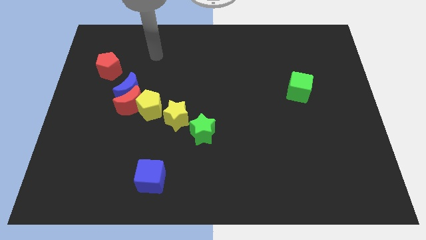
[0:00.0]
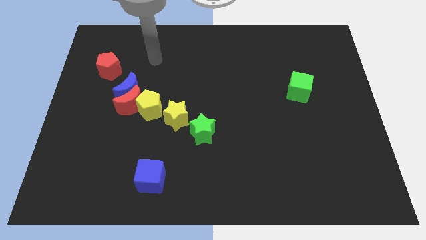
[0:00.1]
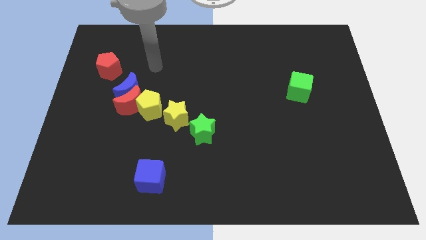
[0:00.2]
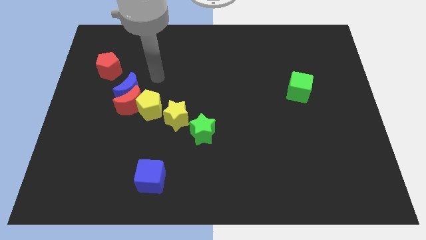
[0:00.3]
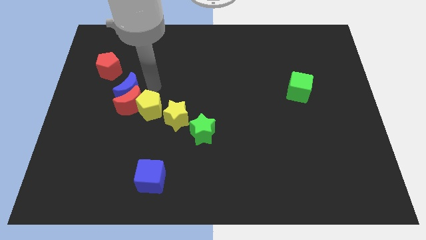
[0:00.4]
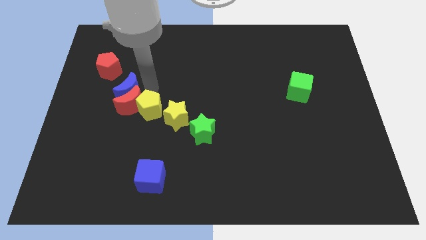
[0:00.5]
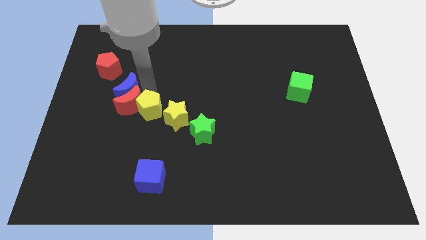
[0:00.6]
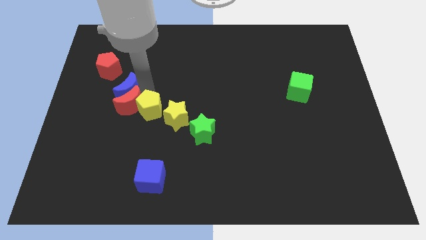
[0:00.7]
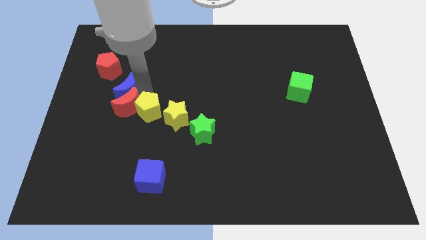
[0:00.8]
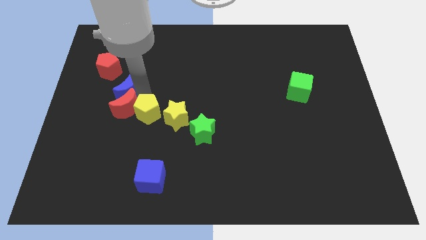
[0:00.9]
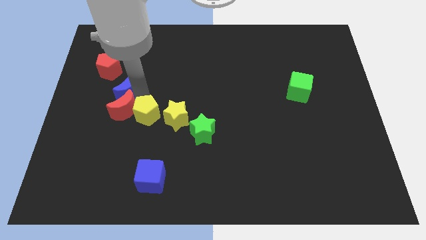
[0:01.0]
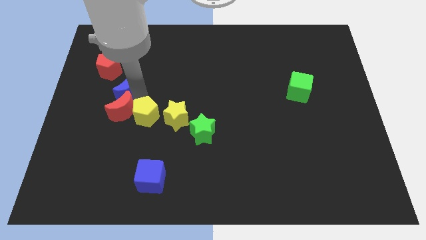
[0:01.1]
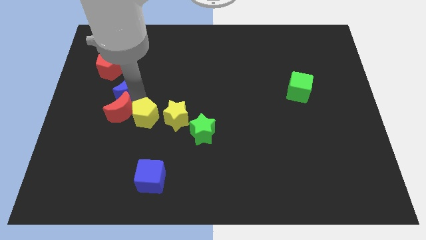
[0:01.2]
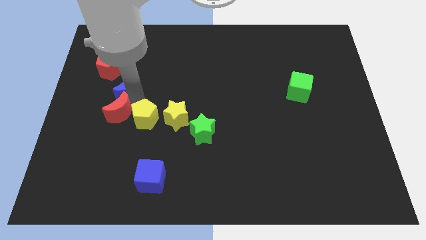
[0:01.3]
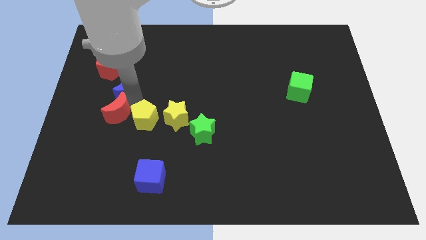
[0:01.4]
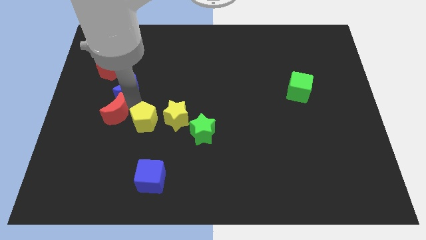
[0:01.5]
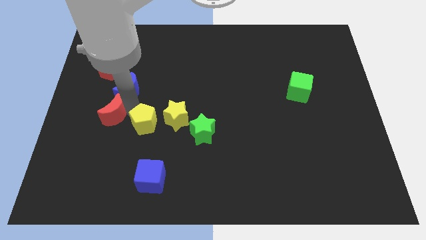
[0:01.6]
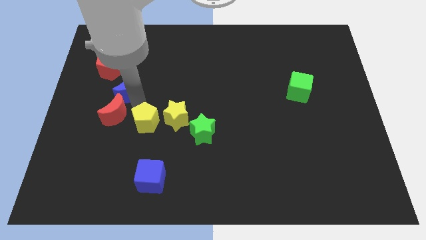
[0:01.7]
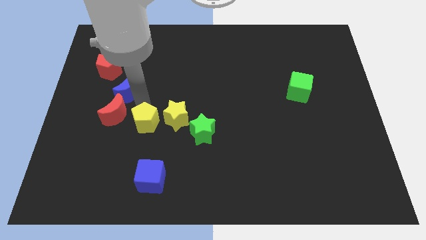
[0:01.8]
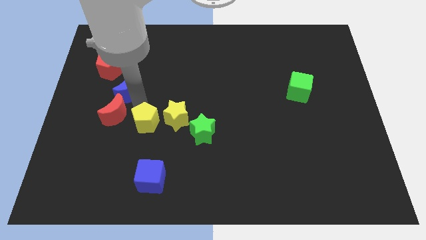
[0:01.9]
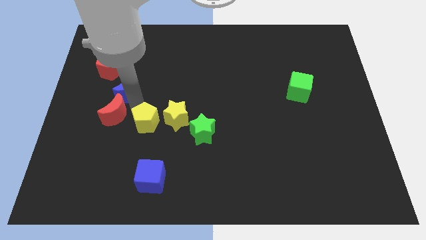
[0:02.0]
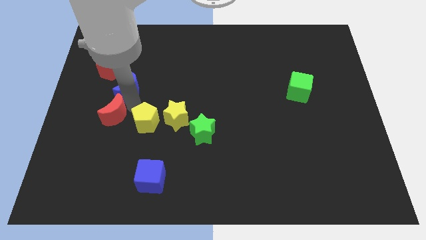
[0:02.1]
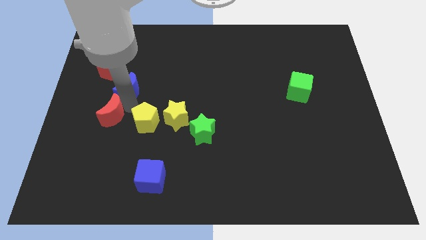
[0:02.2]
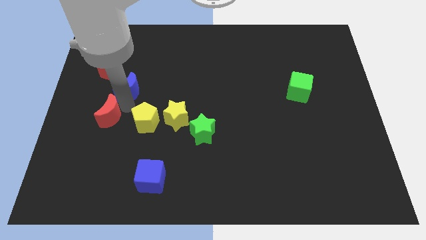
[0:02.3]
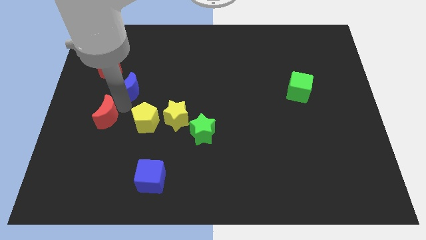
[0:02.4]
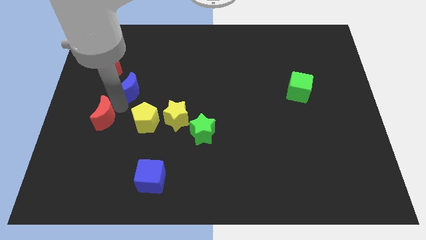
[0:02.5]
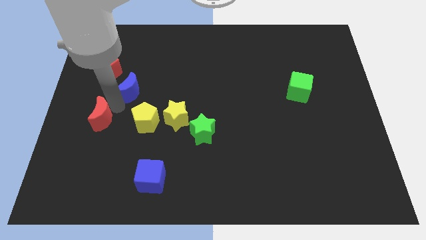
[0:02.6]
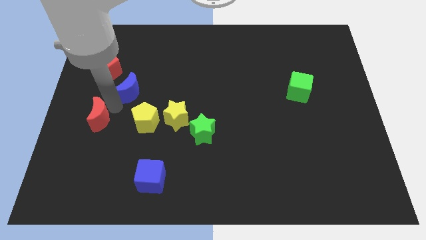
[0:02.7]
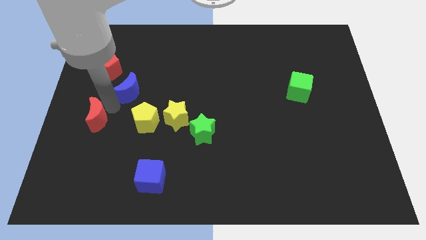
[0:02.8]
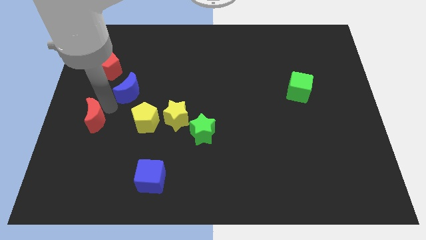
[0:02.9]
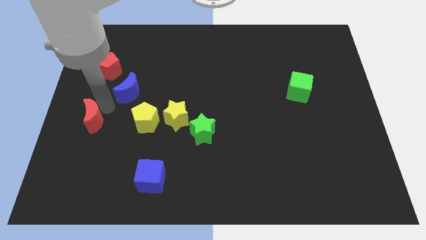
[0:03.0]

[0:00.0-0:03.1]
pull the red moon apart from the blue moon and yellow pentagon

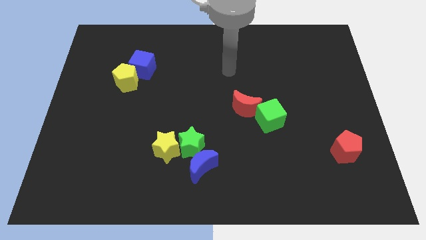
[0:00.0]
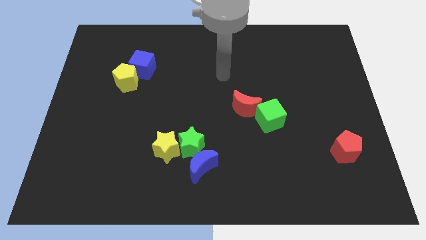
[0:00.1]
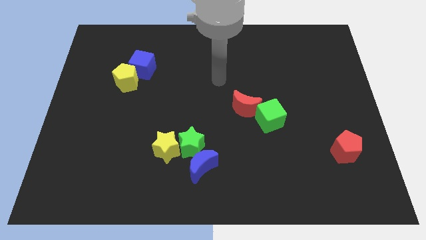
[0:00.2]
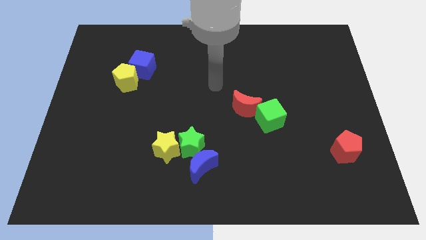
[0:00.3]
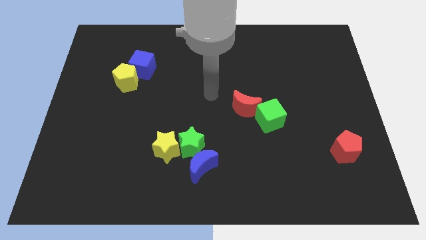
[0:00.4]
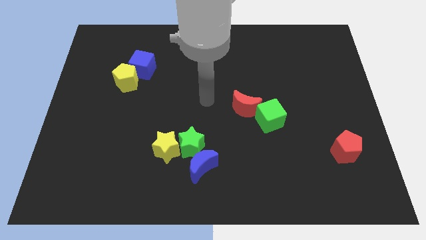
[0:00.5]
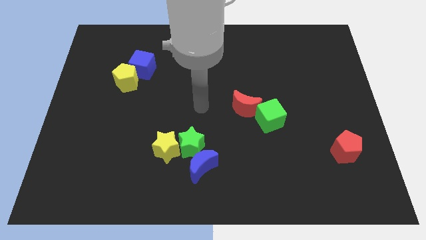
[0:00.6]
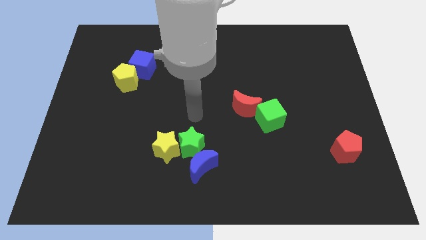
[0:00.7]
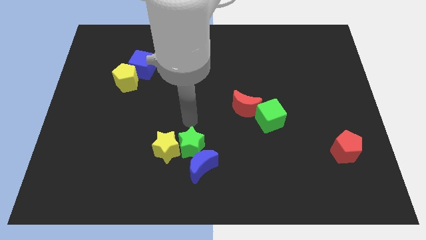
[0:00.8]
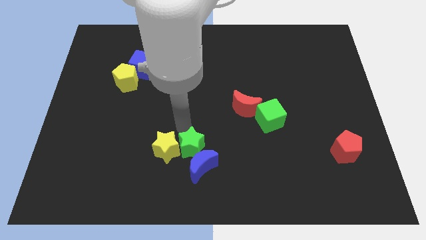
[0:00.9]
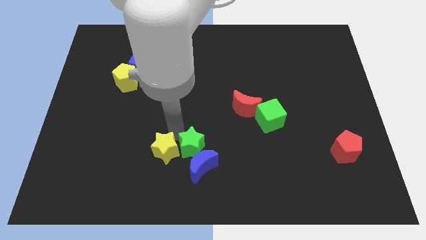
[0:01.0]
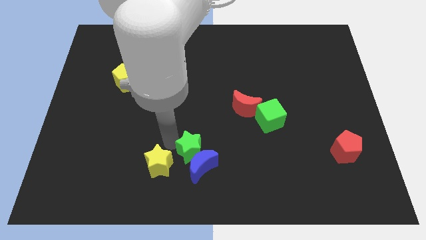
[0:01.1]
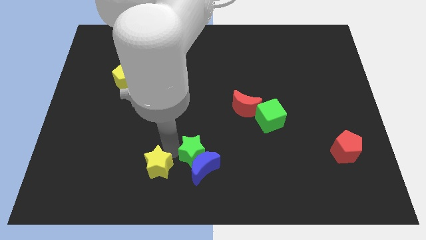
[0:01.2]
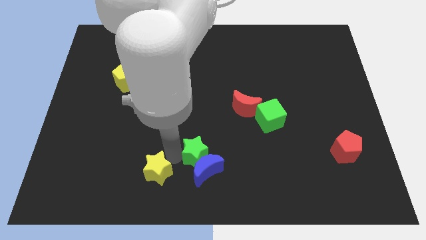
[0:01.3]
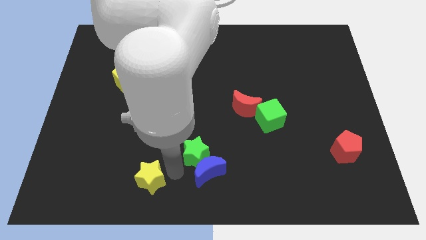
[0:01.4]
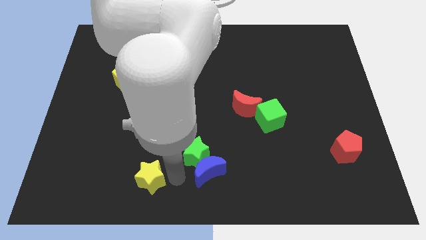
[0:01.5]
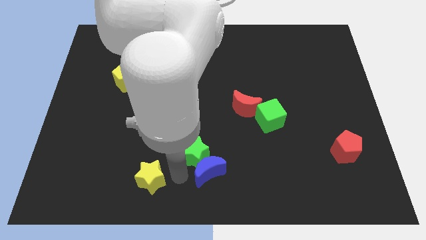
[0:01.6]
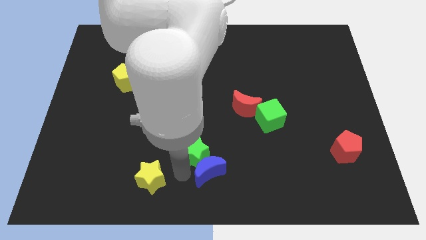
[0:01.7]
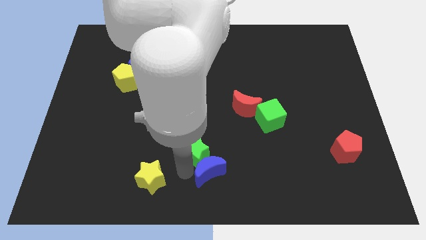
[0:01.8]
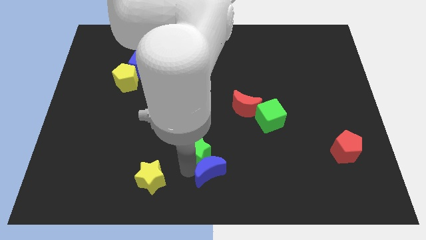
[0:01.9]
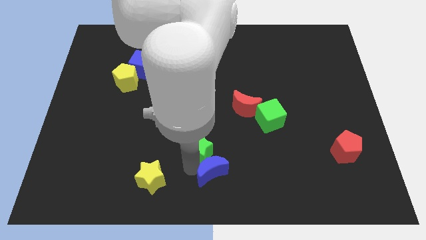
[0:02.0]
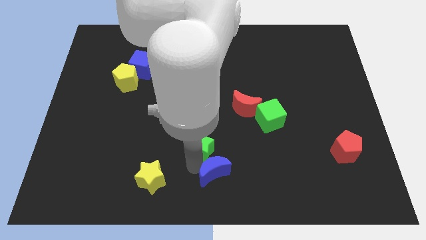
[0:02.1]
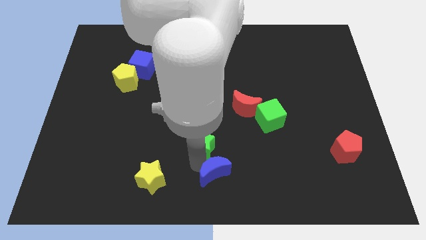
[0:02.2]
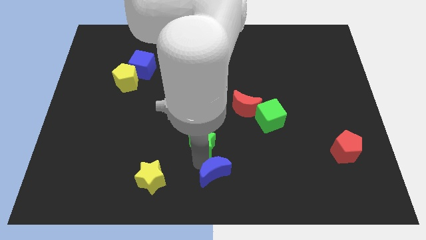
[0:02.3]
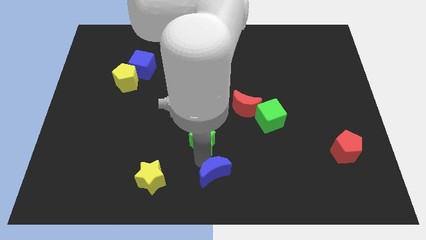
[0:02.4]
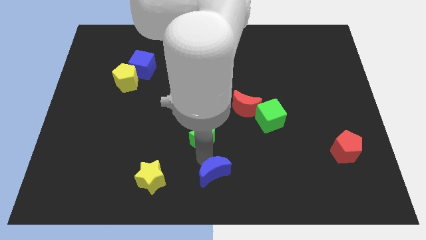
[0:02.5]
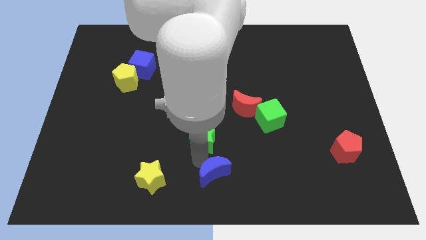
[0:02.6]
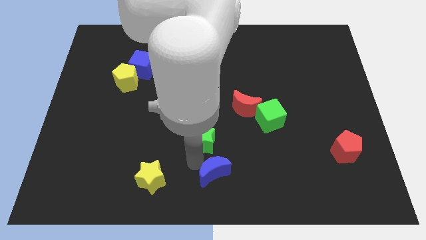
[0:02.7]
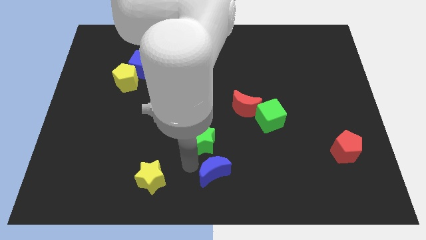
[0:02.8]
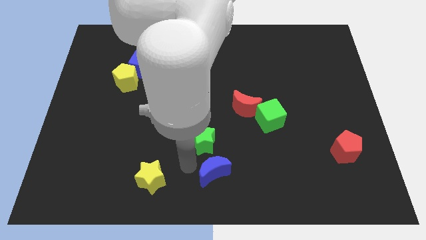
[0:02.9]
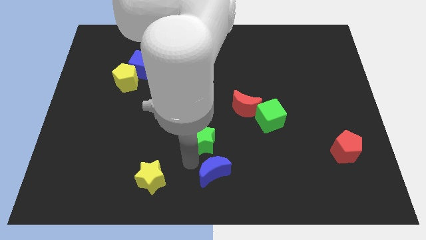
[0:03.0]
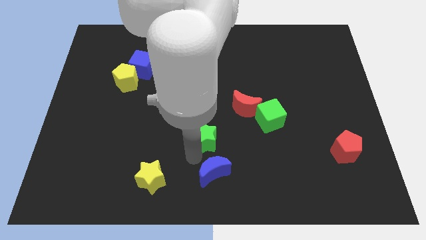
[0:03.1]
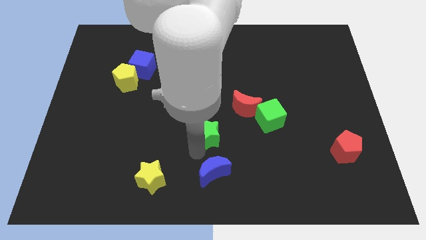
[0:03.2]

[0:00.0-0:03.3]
move the green star away from the yellow star and blue moon

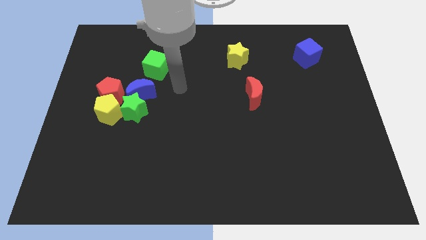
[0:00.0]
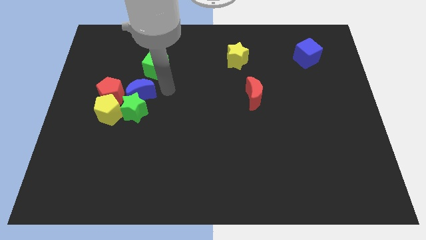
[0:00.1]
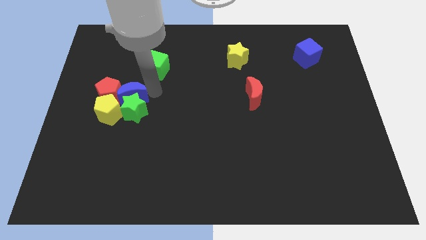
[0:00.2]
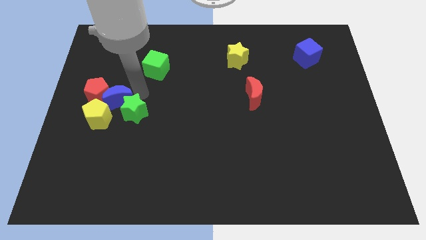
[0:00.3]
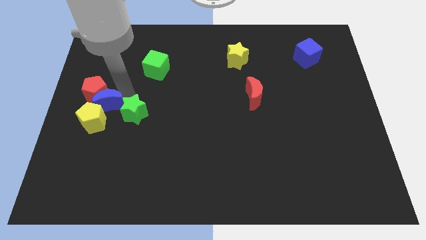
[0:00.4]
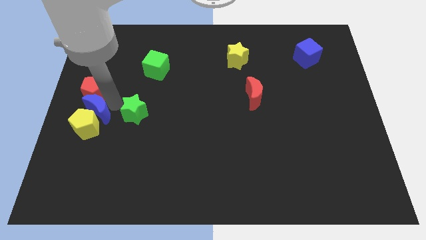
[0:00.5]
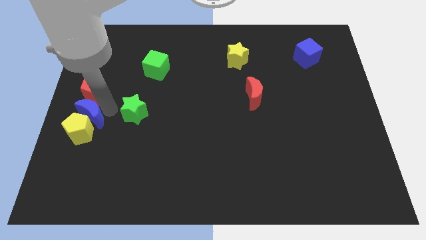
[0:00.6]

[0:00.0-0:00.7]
move the green star away from the group of blocks

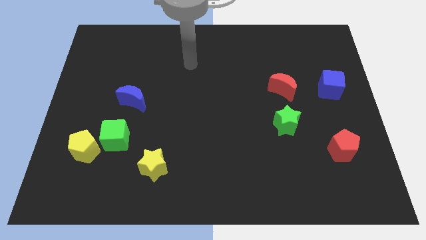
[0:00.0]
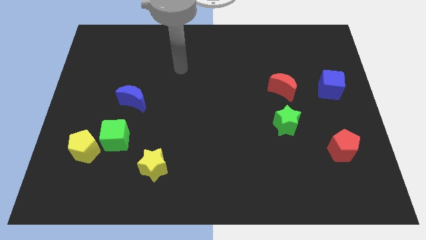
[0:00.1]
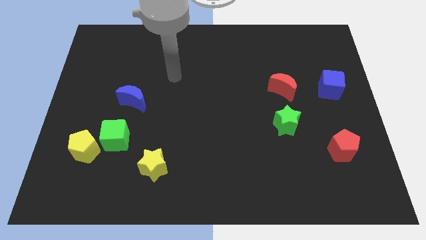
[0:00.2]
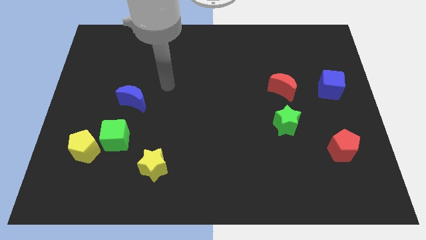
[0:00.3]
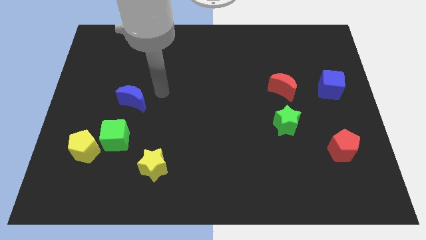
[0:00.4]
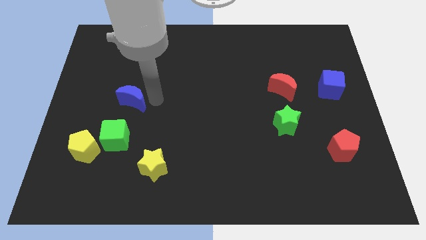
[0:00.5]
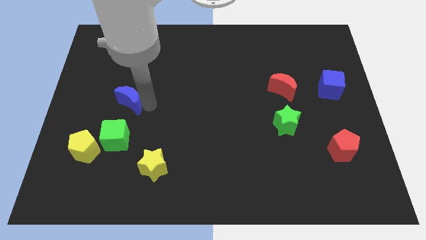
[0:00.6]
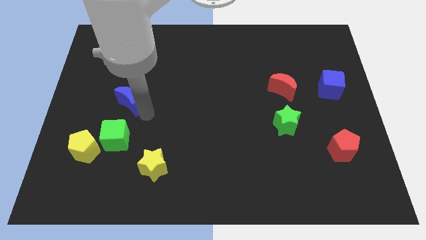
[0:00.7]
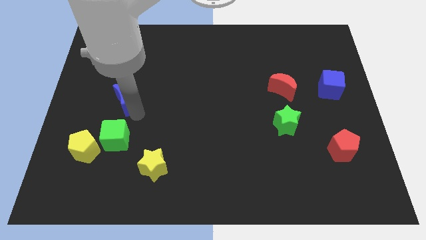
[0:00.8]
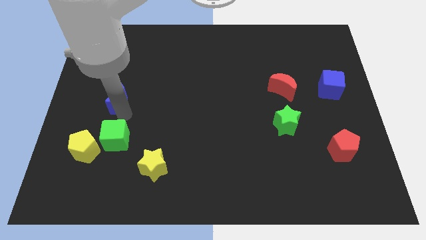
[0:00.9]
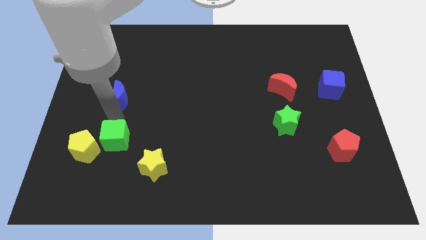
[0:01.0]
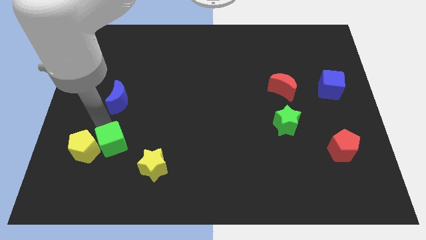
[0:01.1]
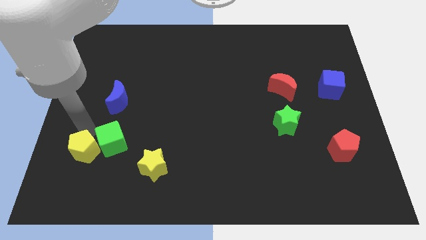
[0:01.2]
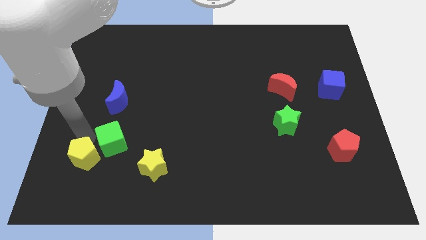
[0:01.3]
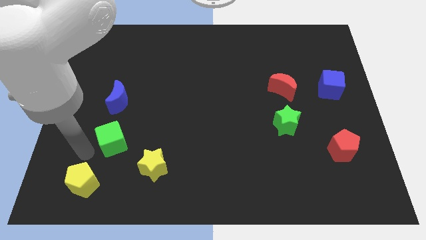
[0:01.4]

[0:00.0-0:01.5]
move the green cube away from the yellow pentagon

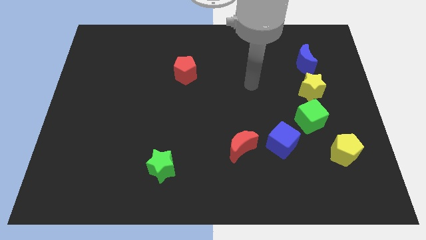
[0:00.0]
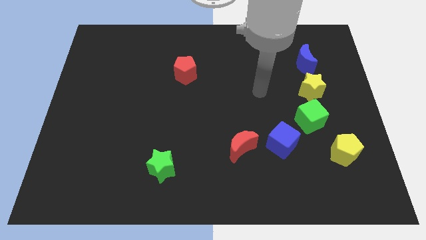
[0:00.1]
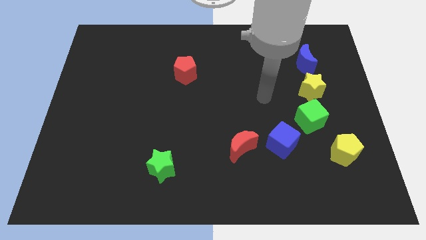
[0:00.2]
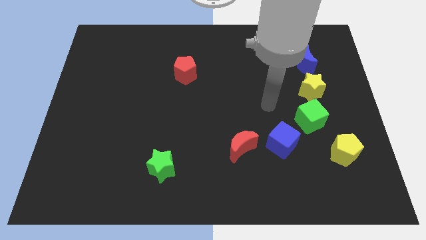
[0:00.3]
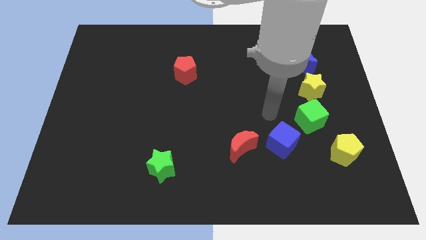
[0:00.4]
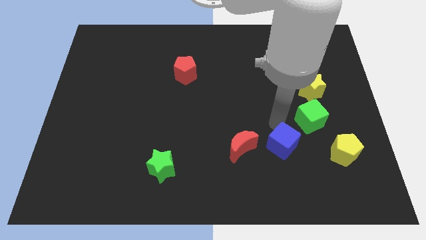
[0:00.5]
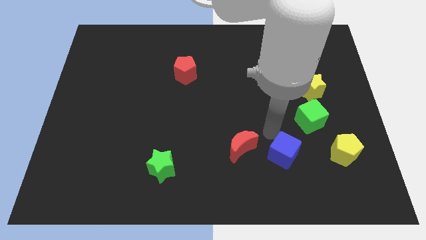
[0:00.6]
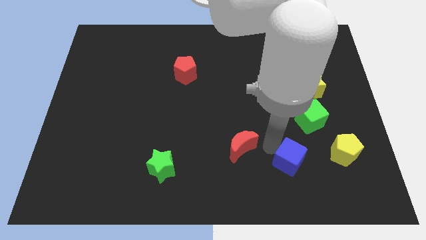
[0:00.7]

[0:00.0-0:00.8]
separate the red moon from the blue cube
